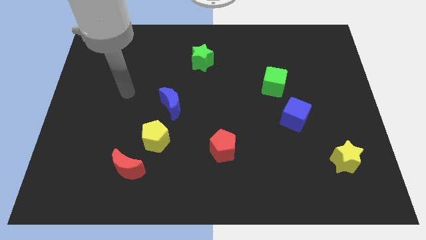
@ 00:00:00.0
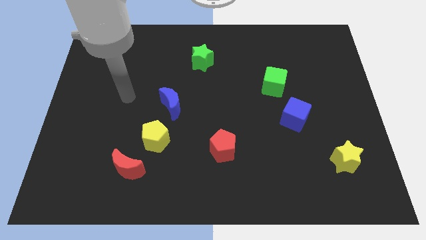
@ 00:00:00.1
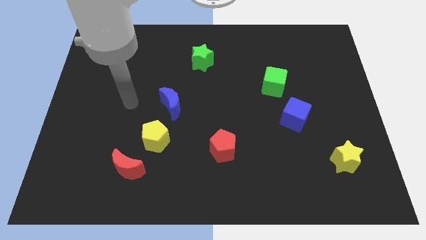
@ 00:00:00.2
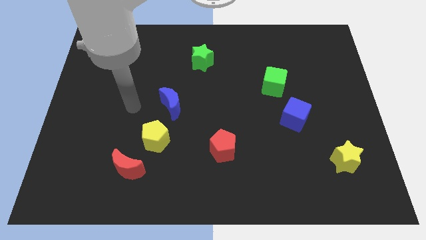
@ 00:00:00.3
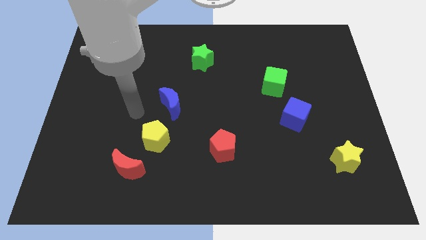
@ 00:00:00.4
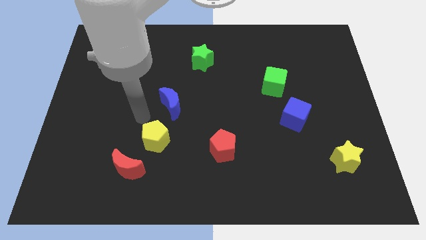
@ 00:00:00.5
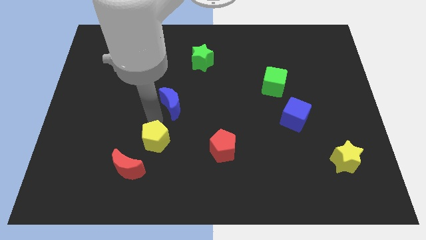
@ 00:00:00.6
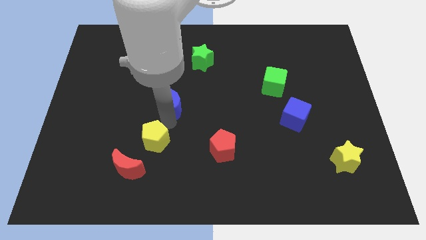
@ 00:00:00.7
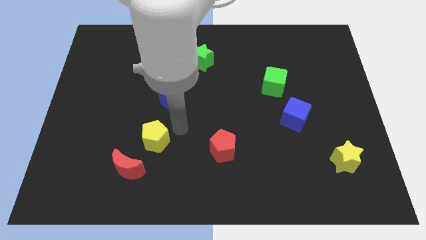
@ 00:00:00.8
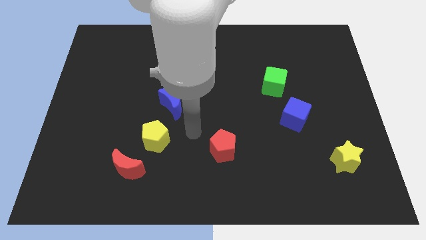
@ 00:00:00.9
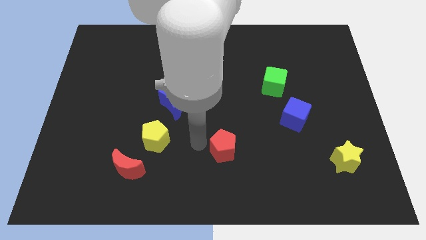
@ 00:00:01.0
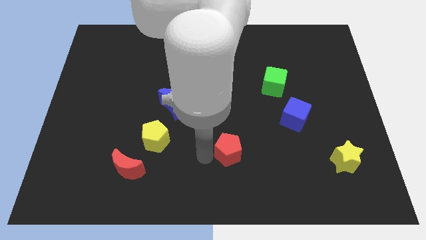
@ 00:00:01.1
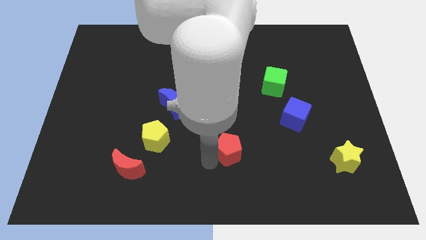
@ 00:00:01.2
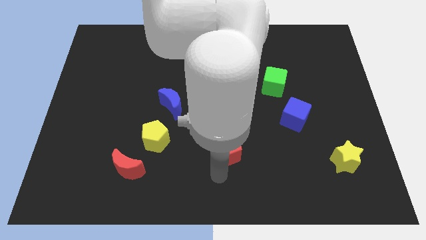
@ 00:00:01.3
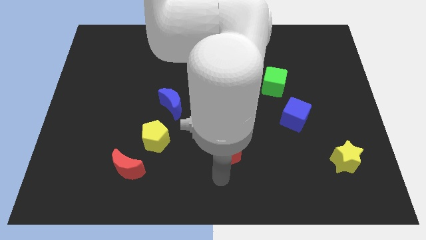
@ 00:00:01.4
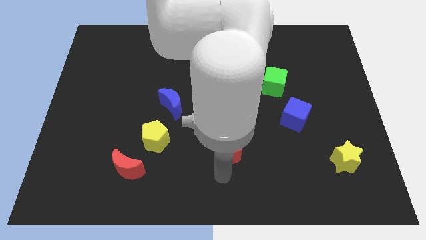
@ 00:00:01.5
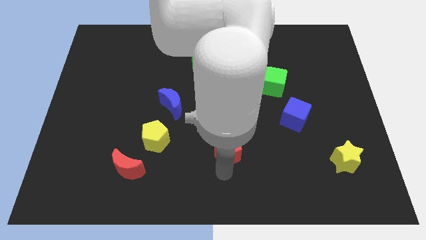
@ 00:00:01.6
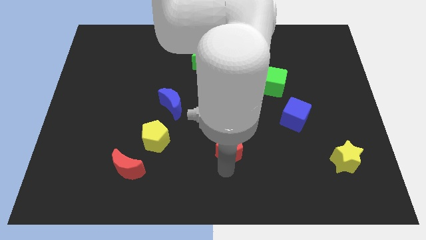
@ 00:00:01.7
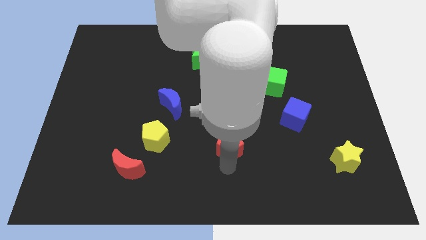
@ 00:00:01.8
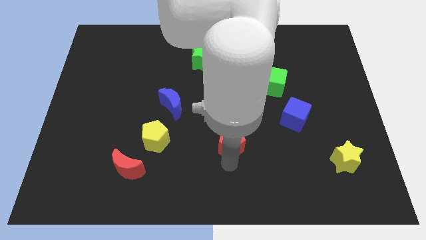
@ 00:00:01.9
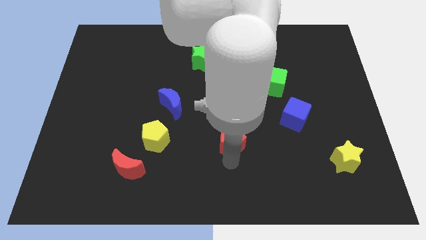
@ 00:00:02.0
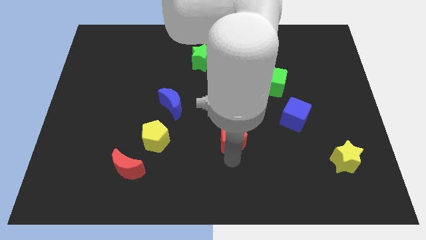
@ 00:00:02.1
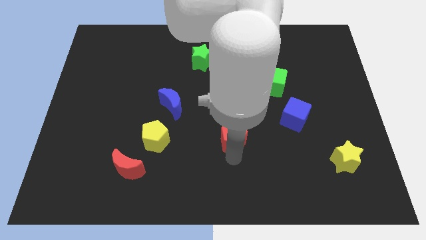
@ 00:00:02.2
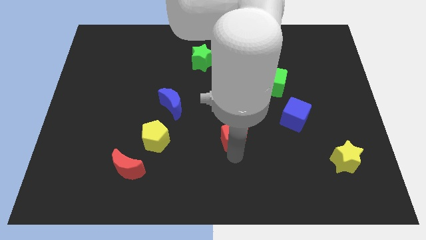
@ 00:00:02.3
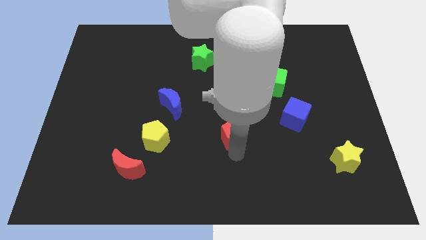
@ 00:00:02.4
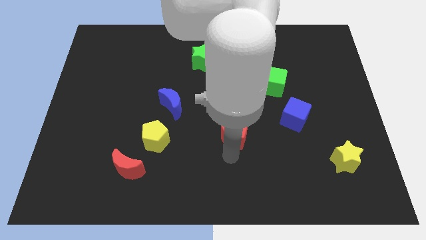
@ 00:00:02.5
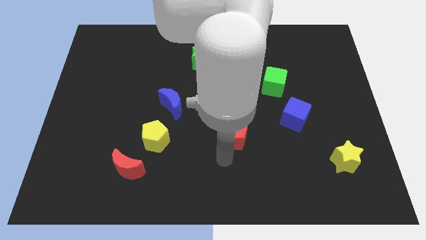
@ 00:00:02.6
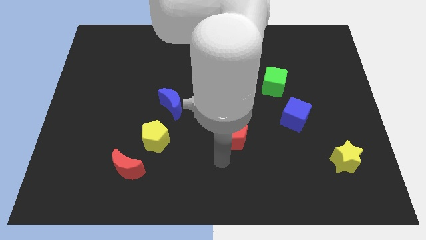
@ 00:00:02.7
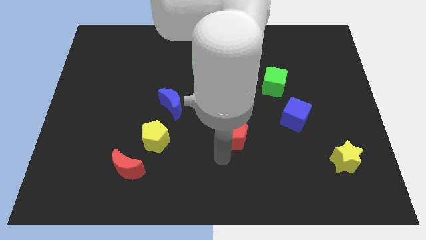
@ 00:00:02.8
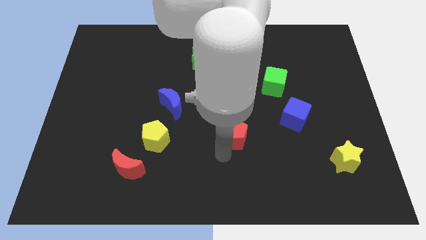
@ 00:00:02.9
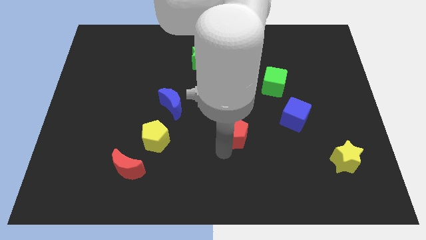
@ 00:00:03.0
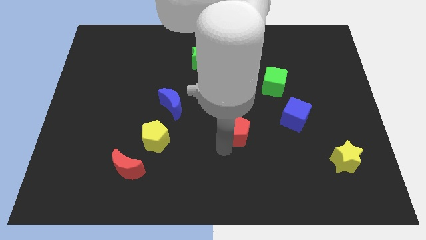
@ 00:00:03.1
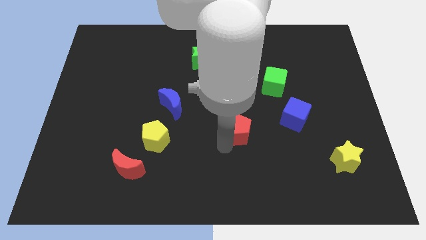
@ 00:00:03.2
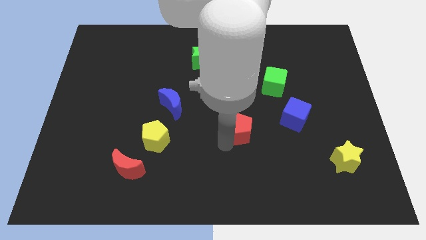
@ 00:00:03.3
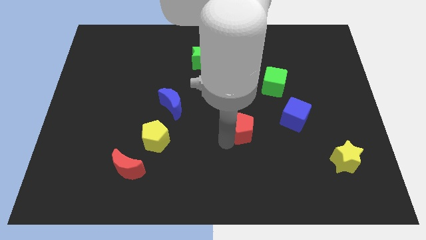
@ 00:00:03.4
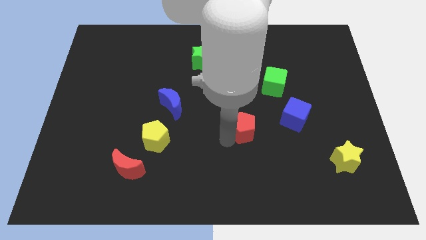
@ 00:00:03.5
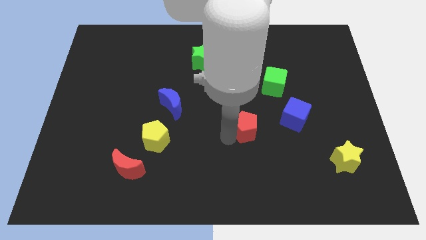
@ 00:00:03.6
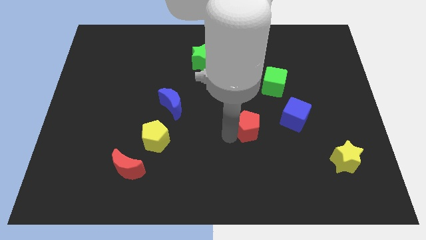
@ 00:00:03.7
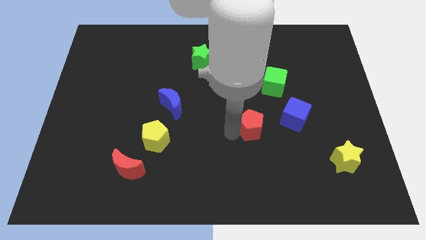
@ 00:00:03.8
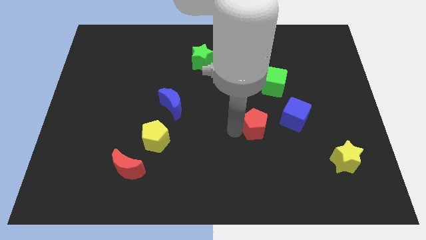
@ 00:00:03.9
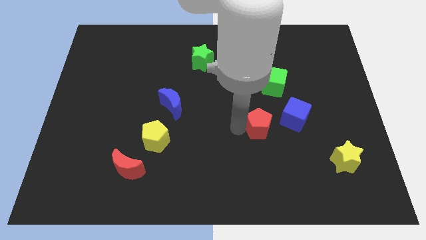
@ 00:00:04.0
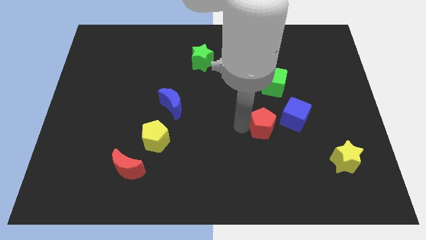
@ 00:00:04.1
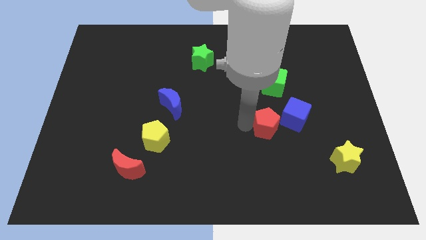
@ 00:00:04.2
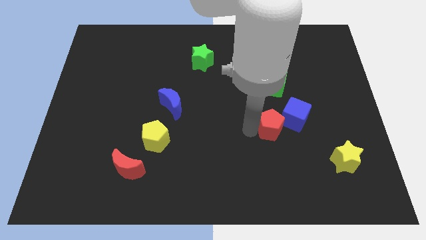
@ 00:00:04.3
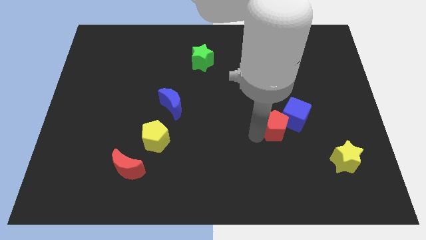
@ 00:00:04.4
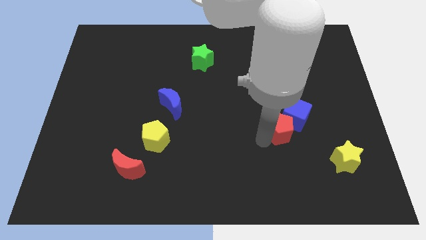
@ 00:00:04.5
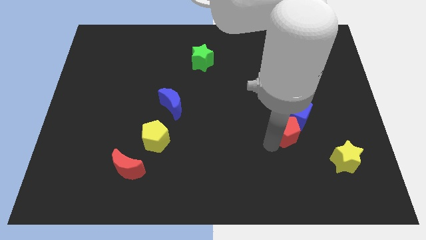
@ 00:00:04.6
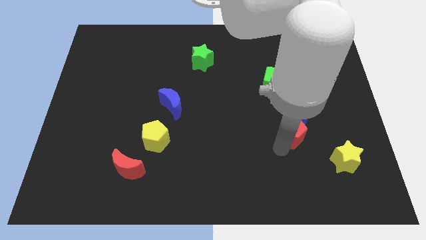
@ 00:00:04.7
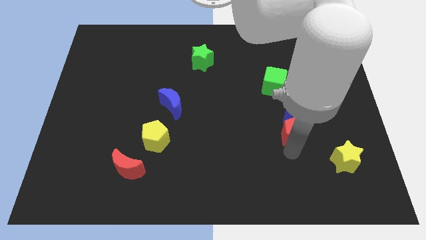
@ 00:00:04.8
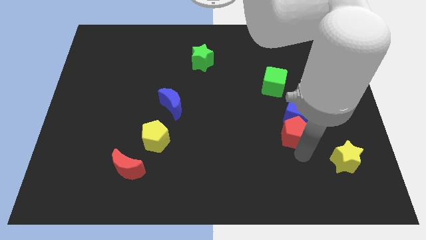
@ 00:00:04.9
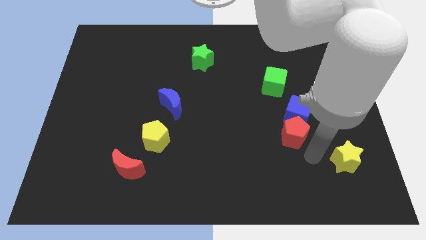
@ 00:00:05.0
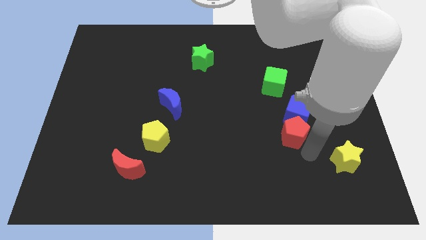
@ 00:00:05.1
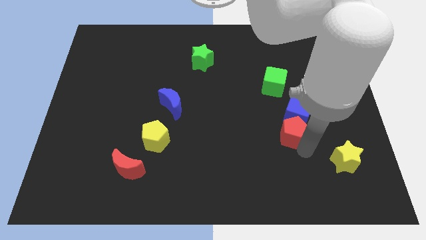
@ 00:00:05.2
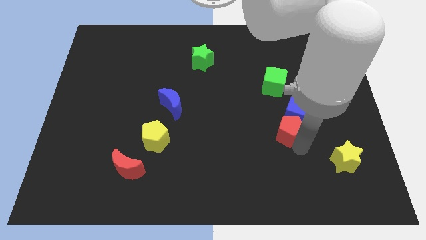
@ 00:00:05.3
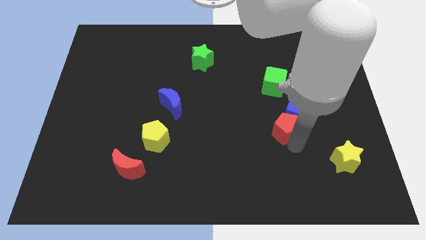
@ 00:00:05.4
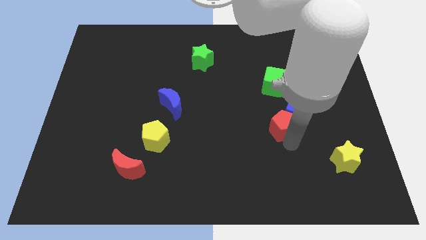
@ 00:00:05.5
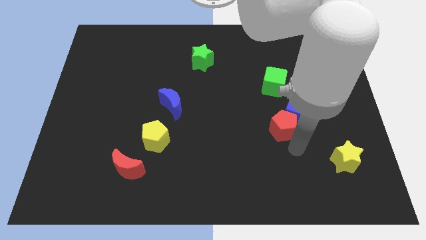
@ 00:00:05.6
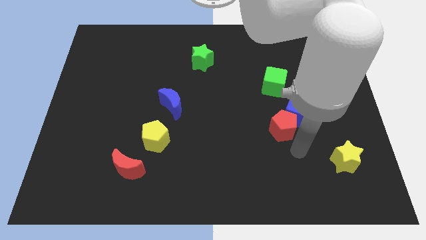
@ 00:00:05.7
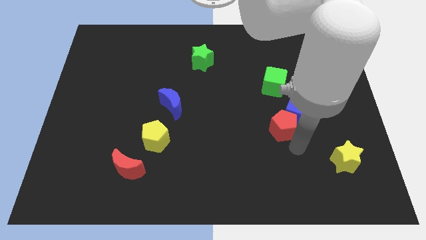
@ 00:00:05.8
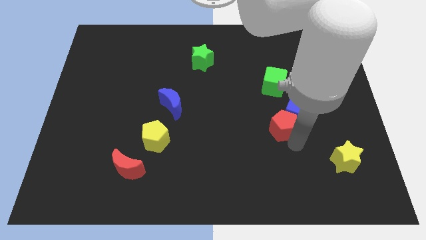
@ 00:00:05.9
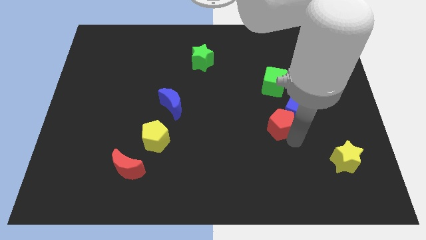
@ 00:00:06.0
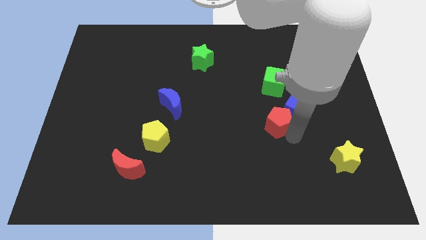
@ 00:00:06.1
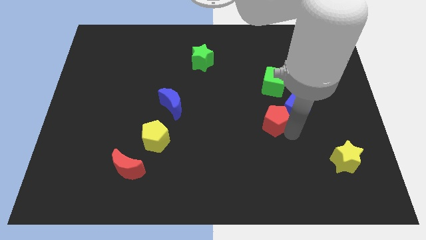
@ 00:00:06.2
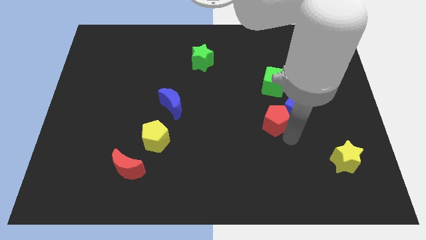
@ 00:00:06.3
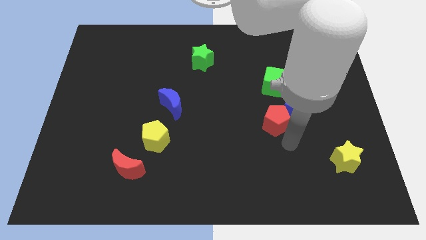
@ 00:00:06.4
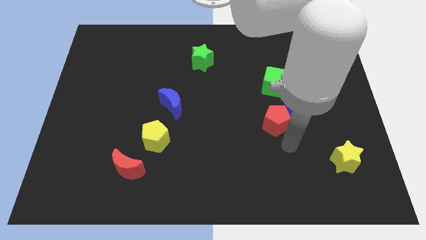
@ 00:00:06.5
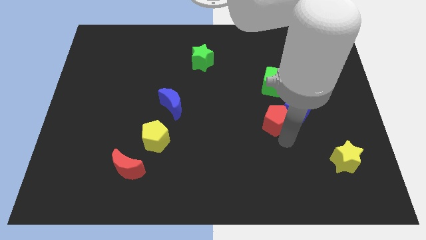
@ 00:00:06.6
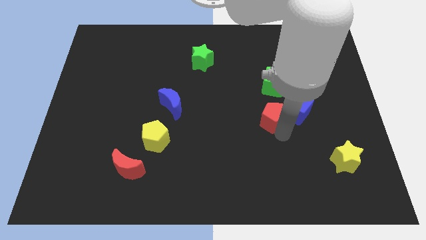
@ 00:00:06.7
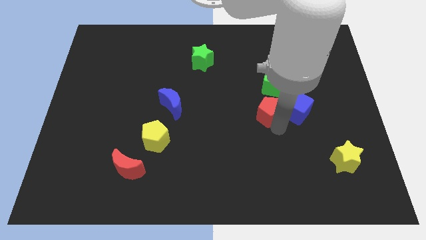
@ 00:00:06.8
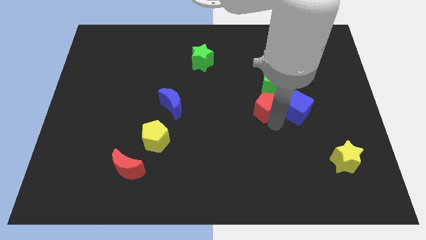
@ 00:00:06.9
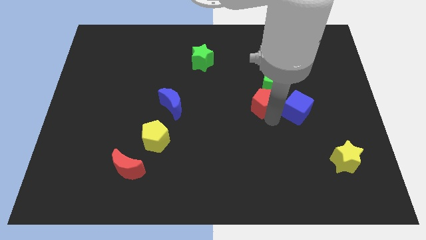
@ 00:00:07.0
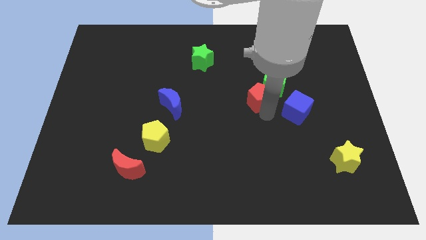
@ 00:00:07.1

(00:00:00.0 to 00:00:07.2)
slide the red pentagon next to the green cube
